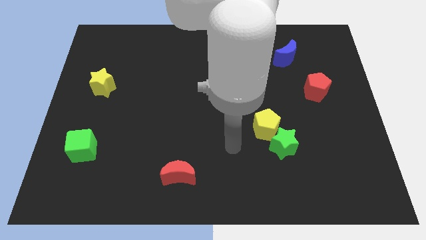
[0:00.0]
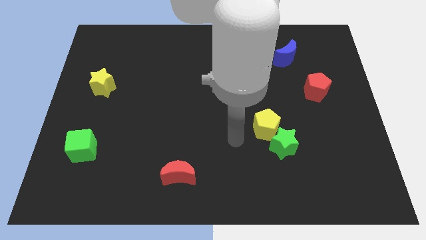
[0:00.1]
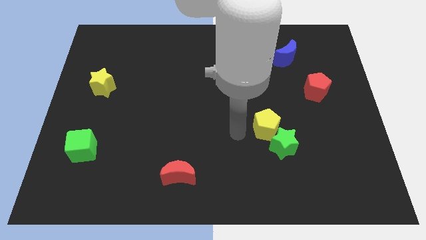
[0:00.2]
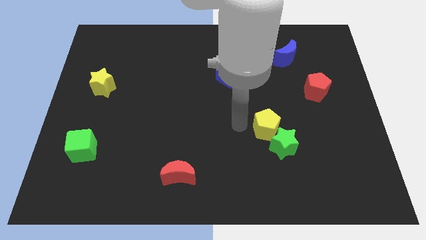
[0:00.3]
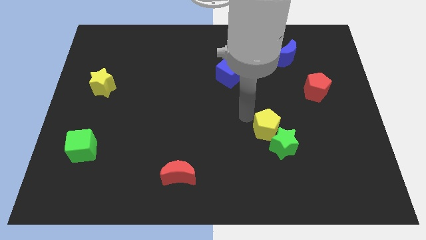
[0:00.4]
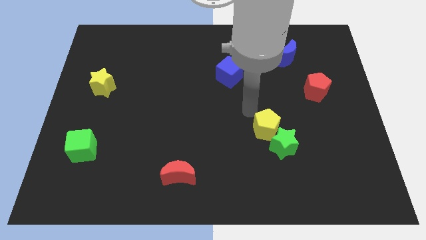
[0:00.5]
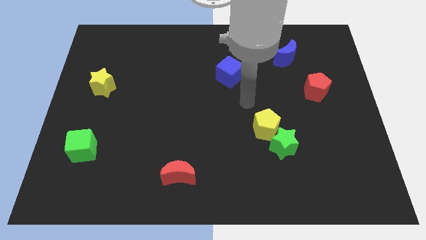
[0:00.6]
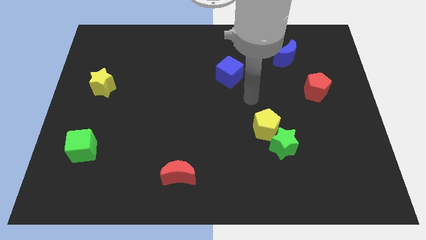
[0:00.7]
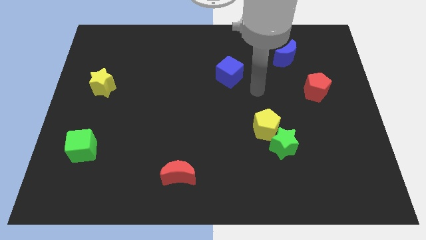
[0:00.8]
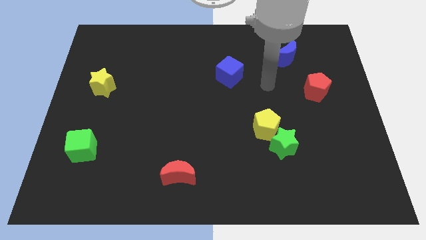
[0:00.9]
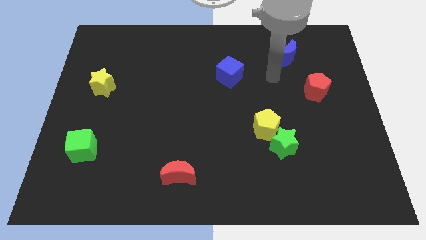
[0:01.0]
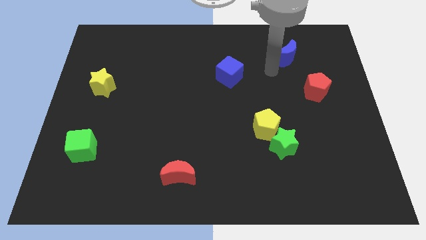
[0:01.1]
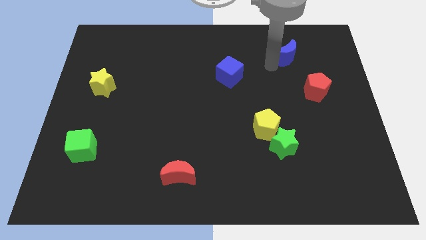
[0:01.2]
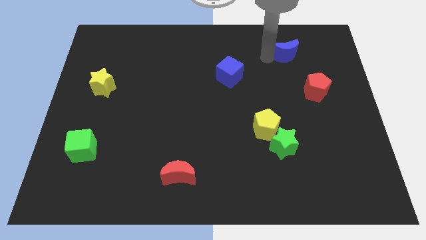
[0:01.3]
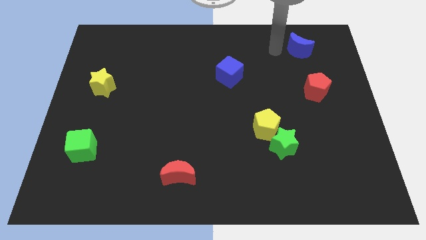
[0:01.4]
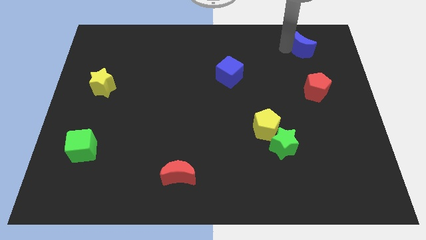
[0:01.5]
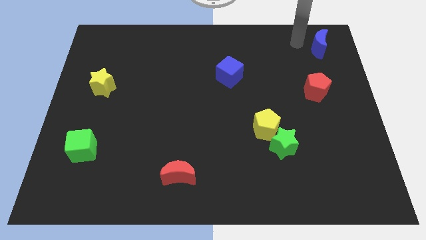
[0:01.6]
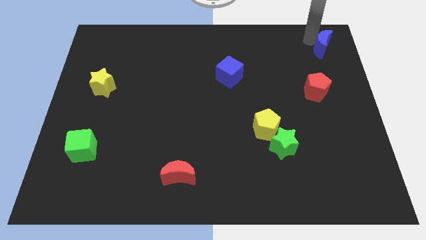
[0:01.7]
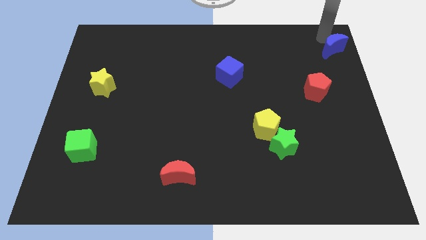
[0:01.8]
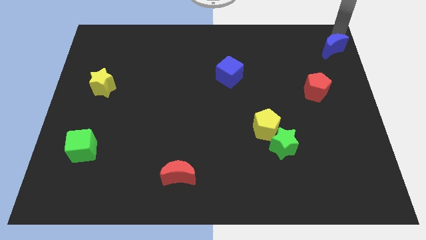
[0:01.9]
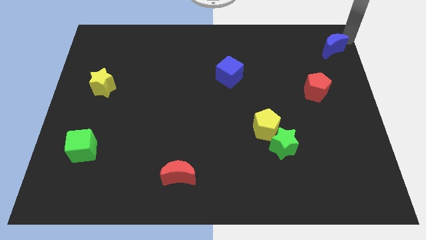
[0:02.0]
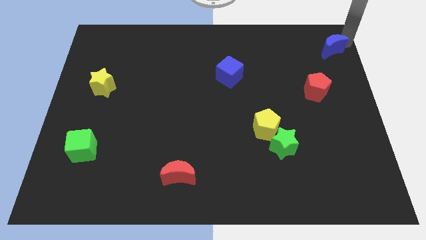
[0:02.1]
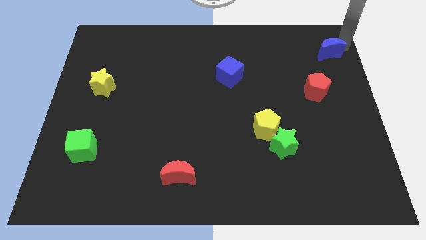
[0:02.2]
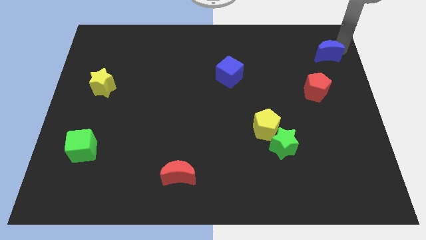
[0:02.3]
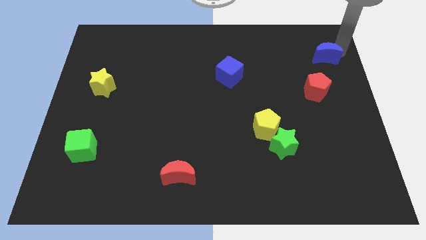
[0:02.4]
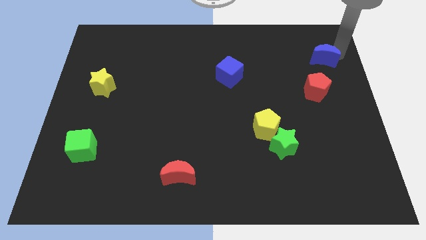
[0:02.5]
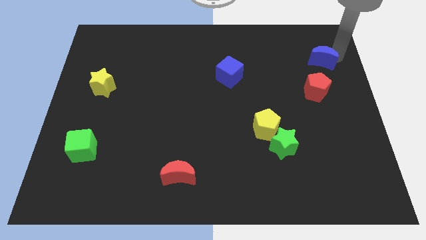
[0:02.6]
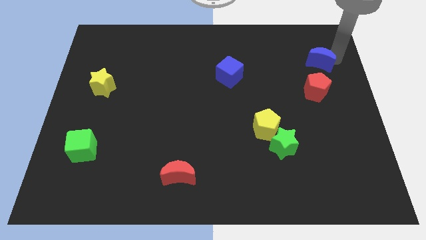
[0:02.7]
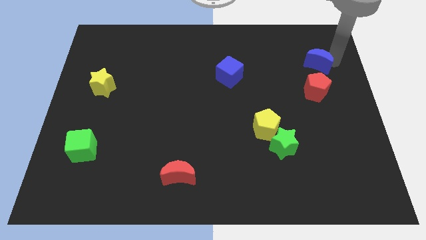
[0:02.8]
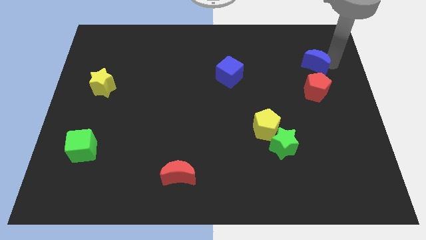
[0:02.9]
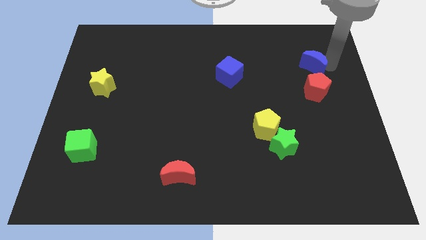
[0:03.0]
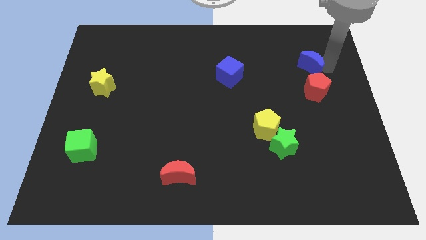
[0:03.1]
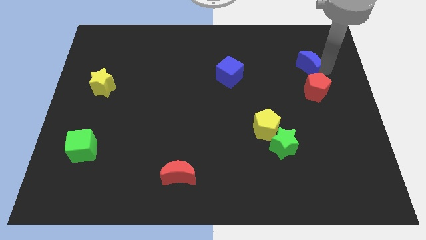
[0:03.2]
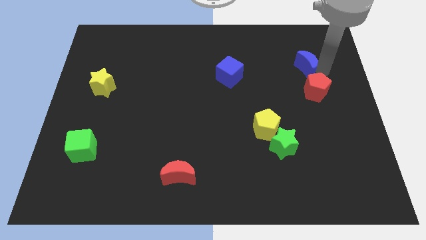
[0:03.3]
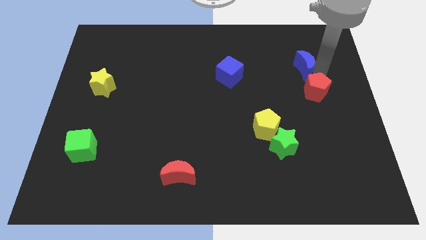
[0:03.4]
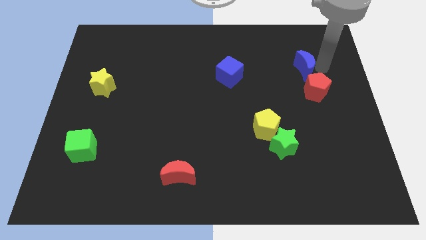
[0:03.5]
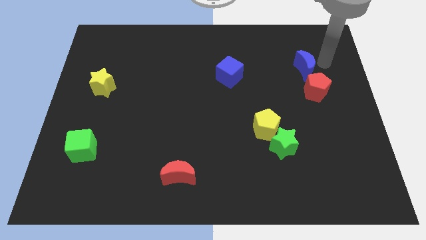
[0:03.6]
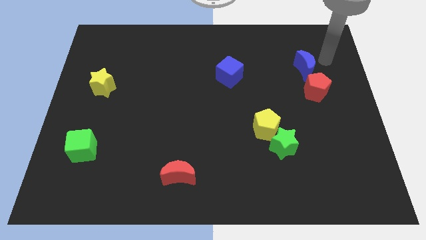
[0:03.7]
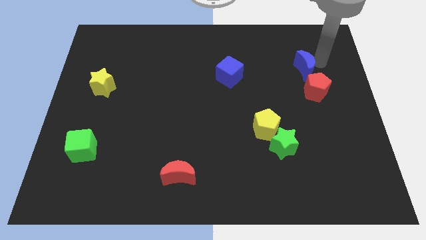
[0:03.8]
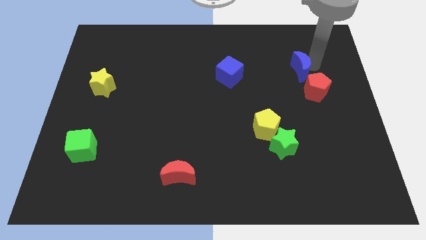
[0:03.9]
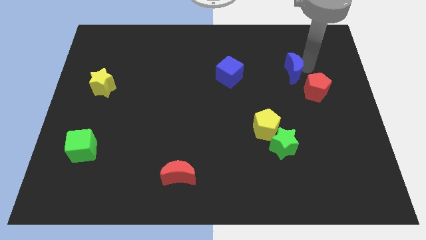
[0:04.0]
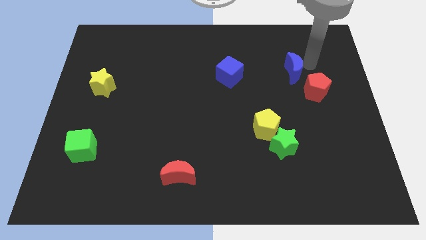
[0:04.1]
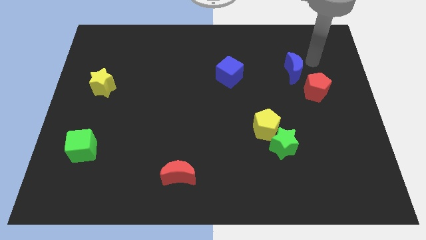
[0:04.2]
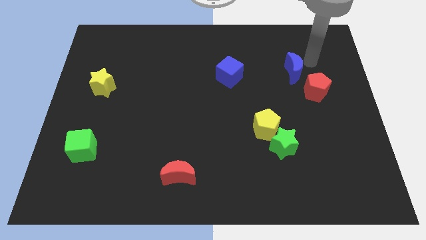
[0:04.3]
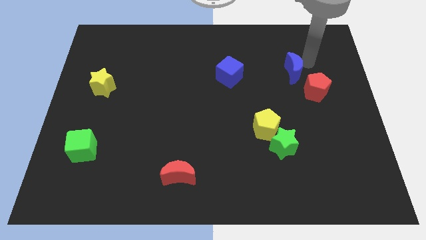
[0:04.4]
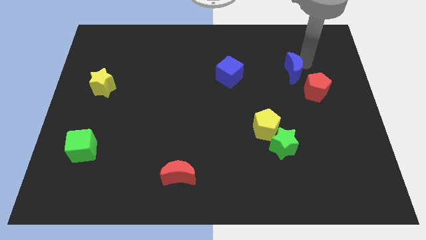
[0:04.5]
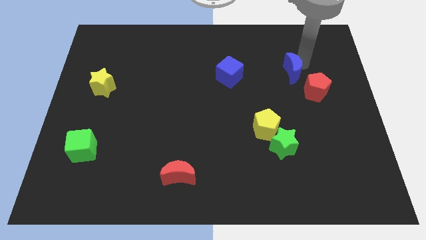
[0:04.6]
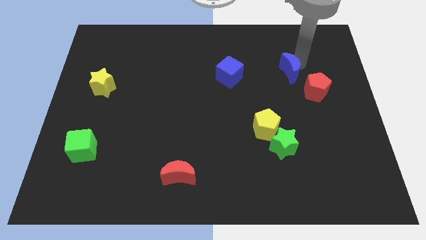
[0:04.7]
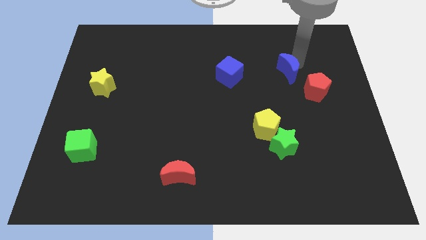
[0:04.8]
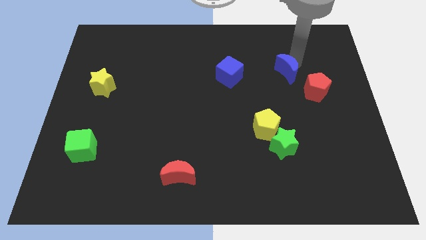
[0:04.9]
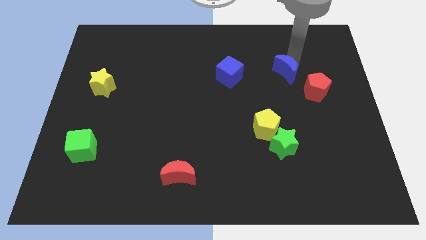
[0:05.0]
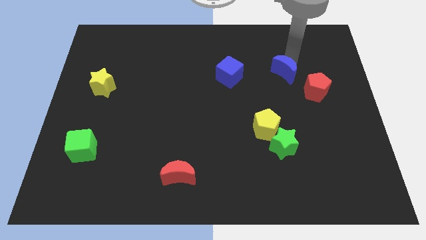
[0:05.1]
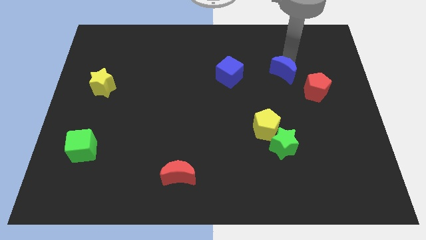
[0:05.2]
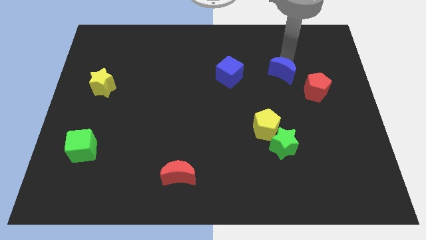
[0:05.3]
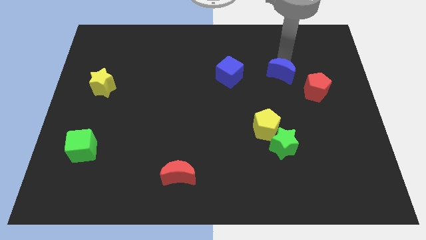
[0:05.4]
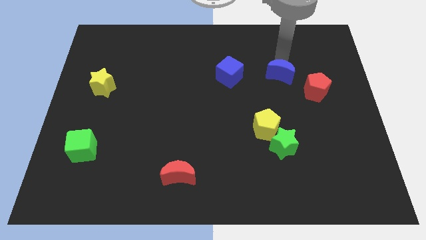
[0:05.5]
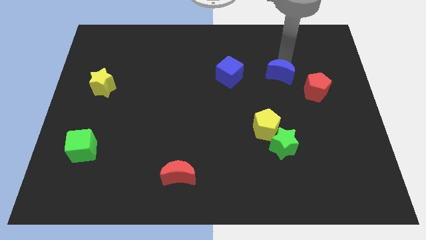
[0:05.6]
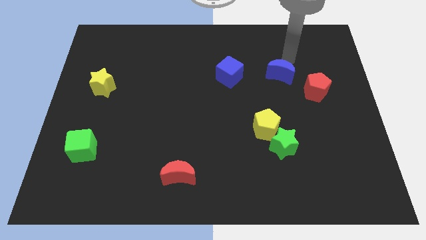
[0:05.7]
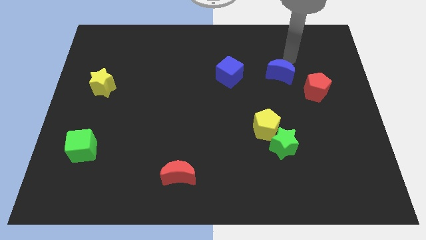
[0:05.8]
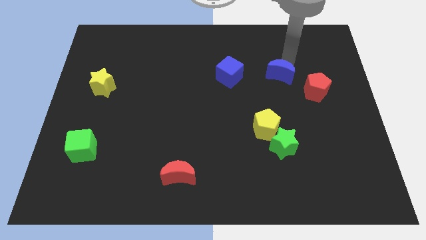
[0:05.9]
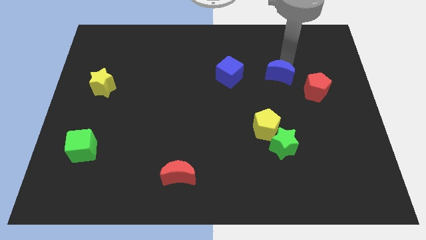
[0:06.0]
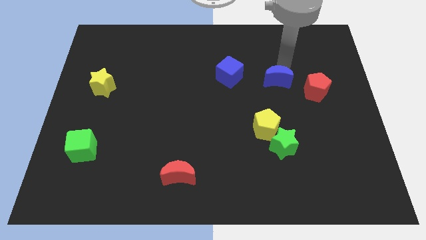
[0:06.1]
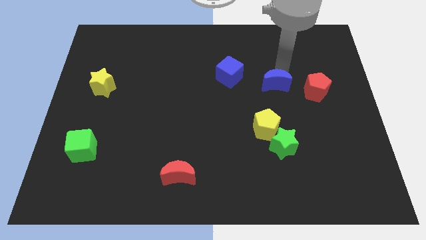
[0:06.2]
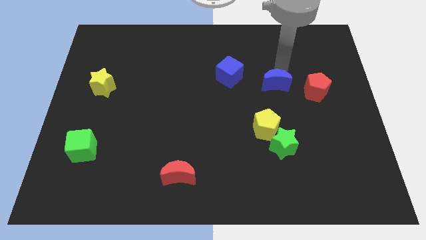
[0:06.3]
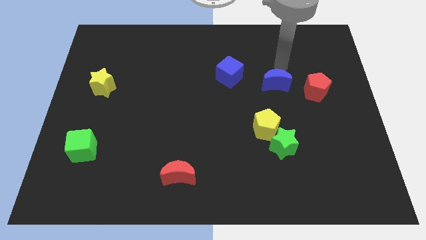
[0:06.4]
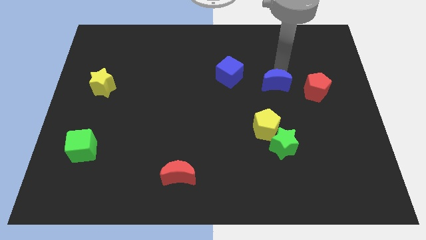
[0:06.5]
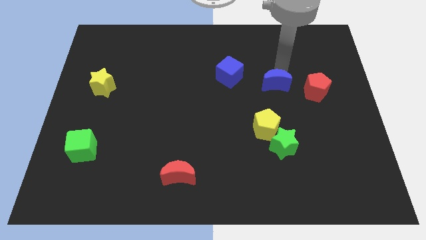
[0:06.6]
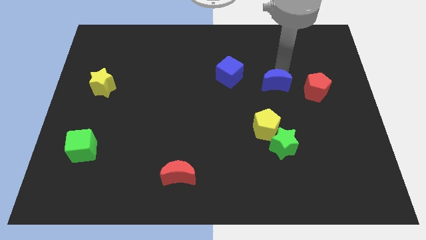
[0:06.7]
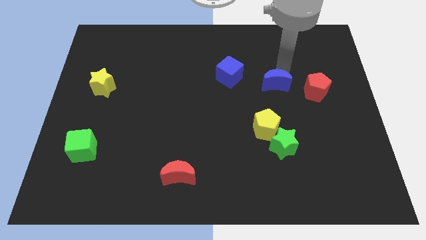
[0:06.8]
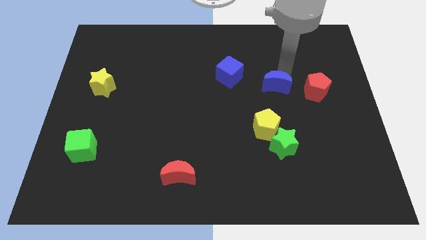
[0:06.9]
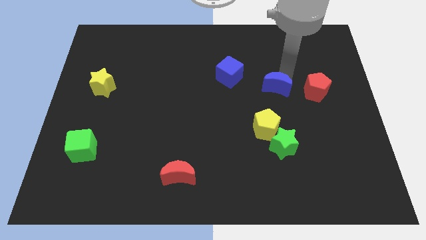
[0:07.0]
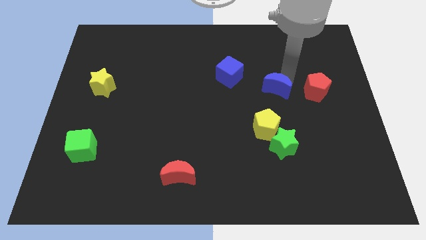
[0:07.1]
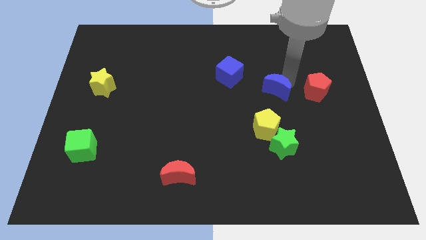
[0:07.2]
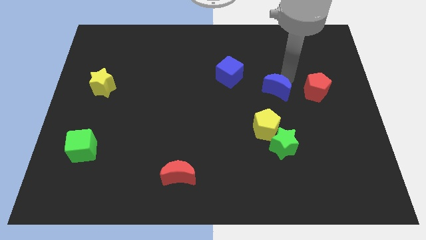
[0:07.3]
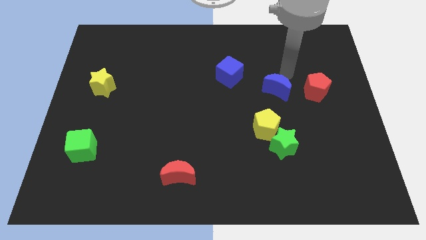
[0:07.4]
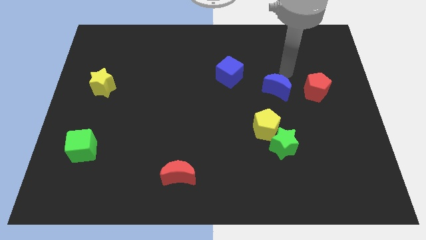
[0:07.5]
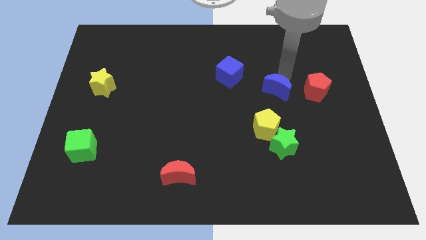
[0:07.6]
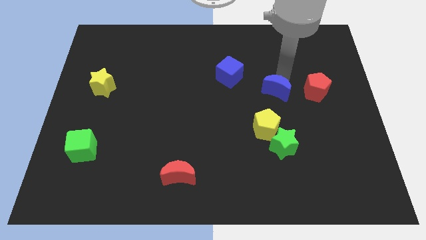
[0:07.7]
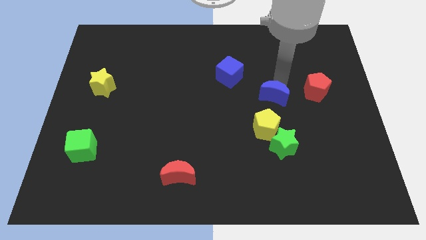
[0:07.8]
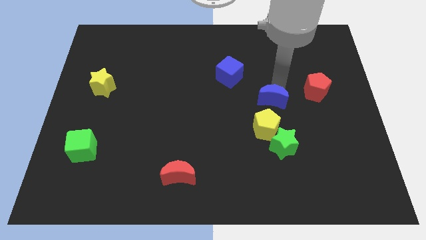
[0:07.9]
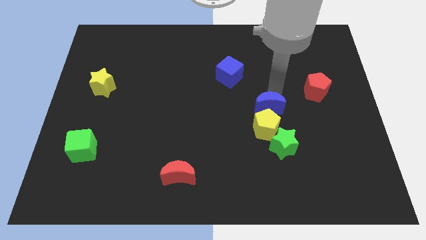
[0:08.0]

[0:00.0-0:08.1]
put the blue moon towards the yellow pentagon
